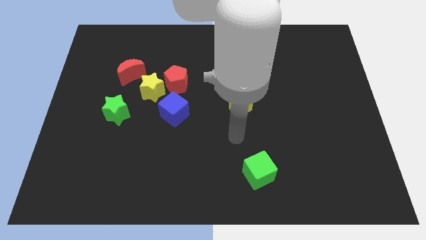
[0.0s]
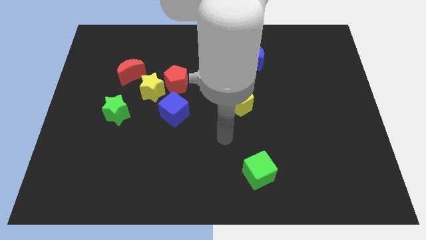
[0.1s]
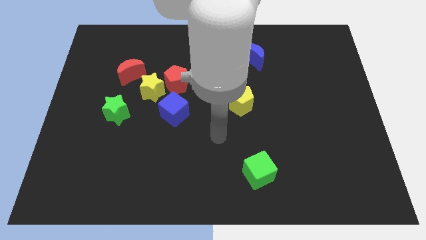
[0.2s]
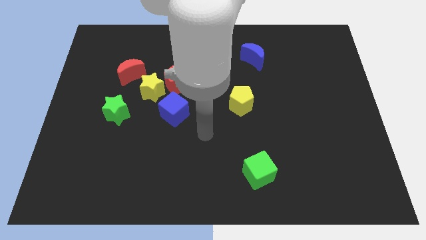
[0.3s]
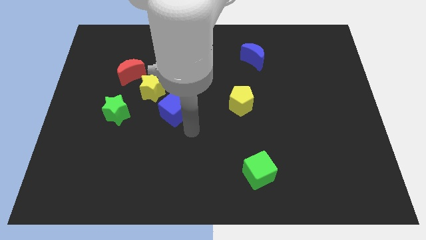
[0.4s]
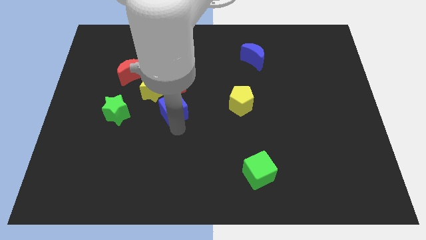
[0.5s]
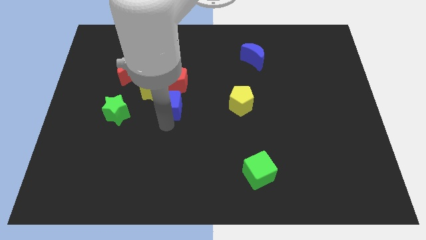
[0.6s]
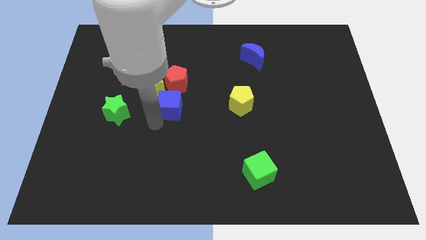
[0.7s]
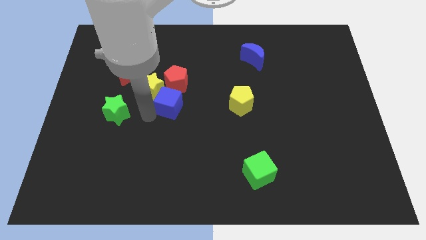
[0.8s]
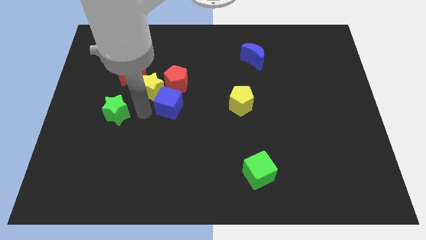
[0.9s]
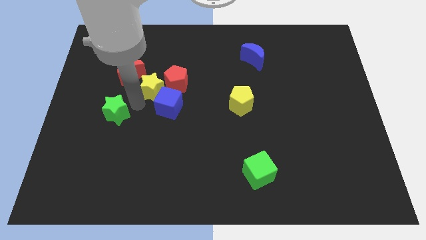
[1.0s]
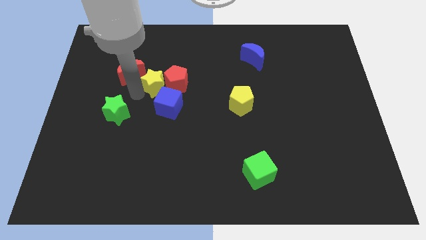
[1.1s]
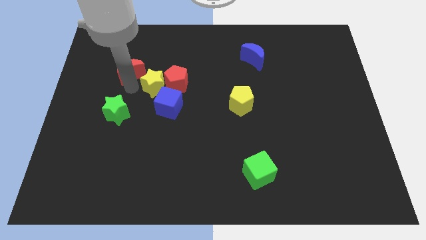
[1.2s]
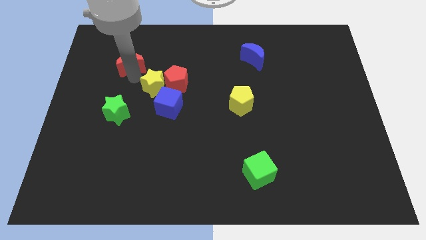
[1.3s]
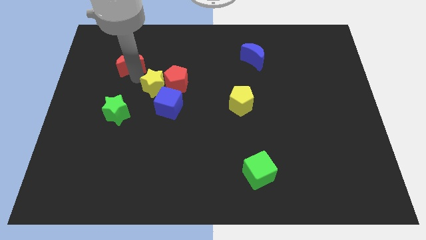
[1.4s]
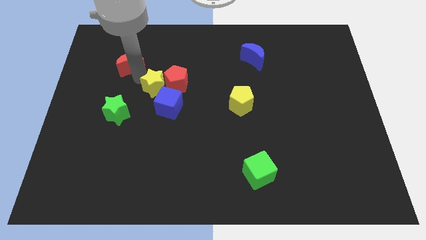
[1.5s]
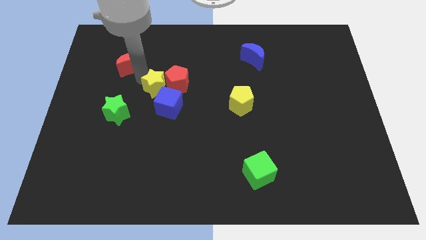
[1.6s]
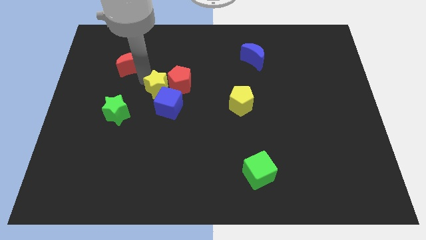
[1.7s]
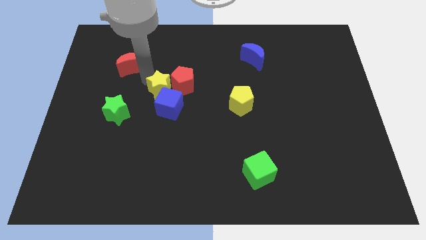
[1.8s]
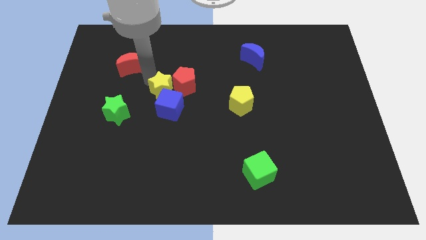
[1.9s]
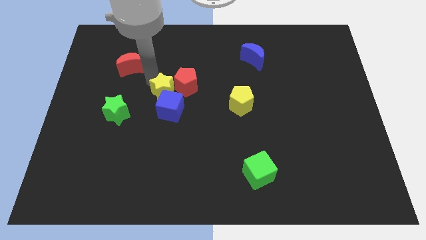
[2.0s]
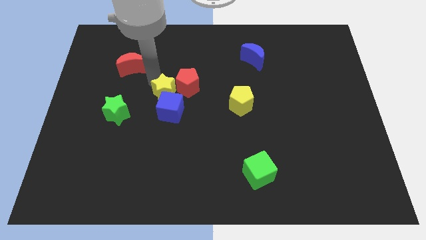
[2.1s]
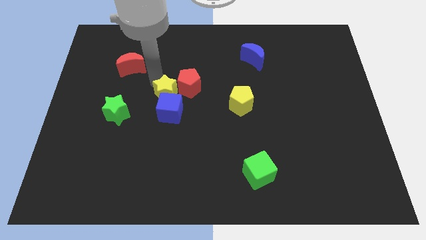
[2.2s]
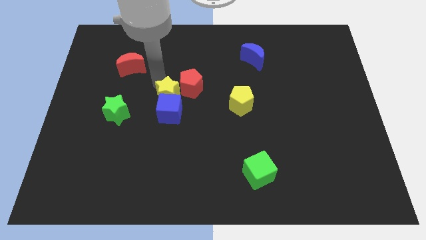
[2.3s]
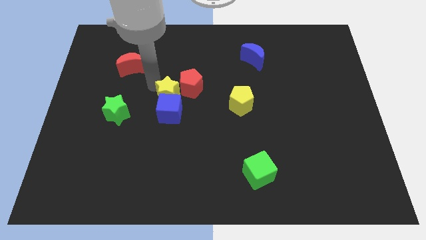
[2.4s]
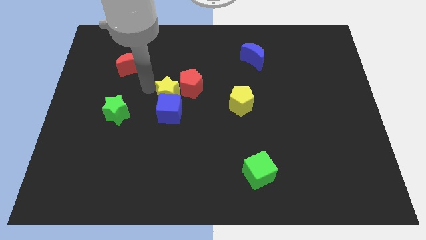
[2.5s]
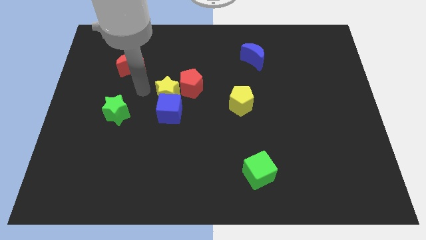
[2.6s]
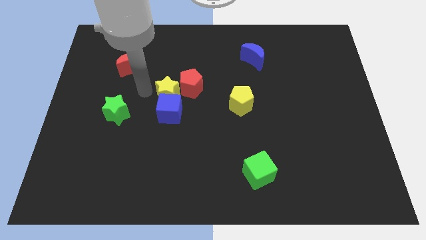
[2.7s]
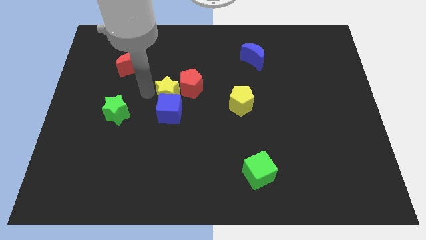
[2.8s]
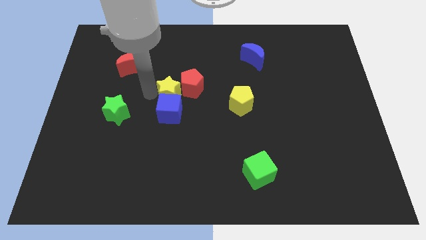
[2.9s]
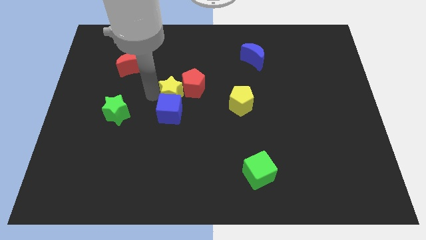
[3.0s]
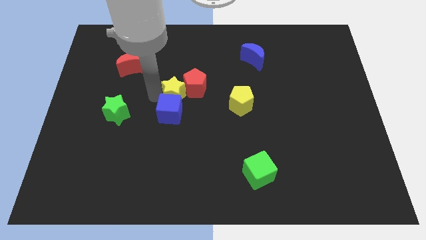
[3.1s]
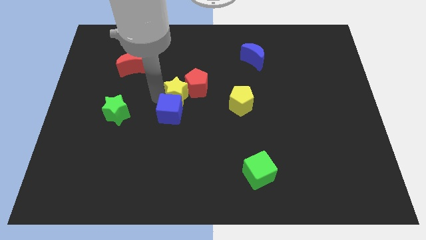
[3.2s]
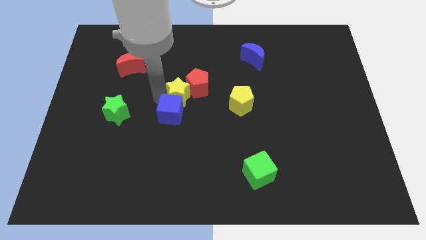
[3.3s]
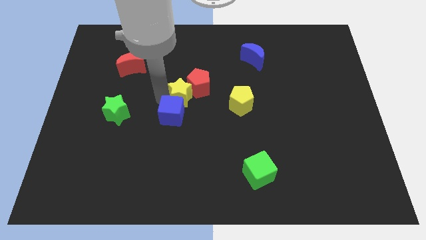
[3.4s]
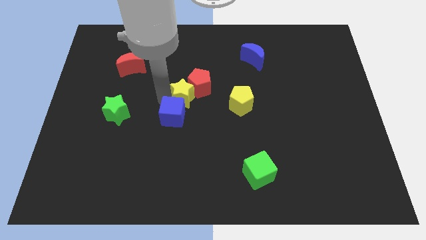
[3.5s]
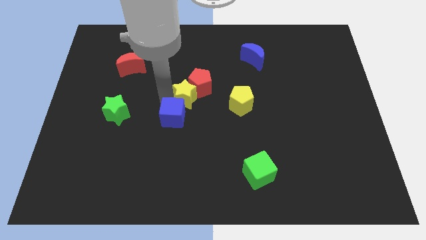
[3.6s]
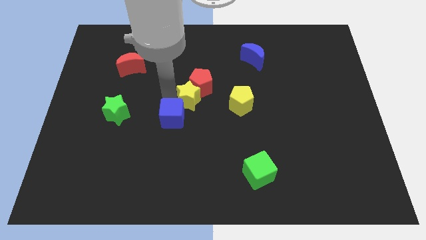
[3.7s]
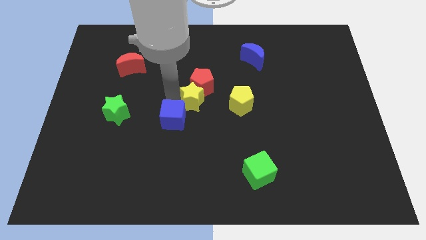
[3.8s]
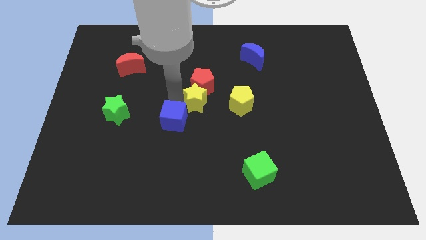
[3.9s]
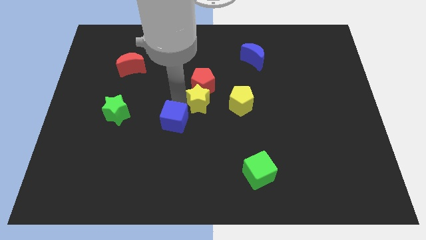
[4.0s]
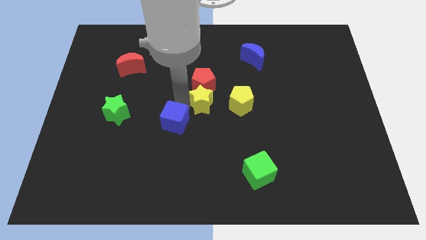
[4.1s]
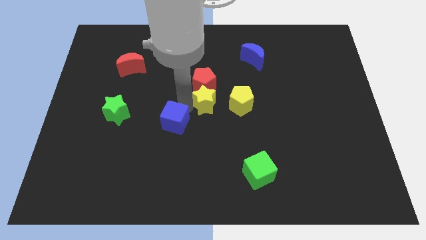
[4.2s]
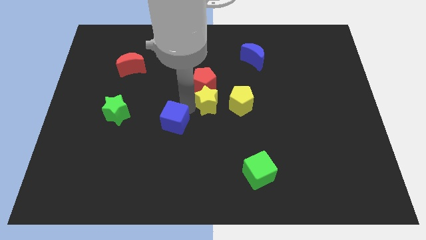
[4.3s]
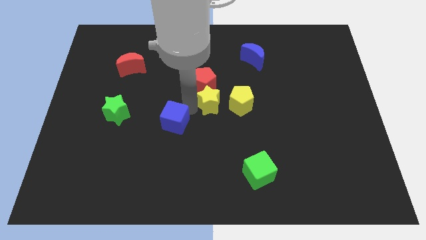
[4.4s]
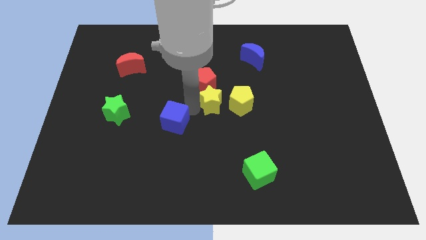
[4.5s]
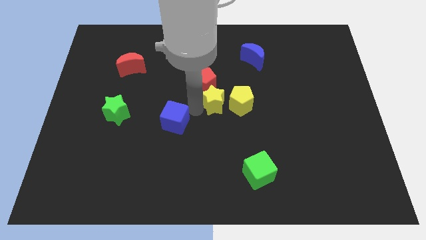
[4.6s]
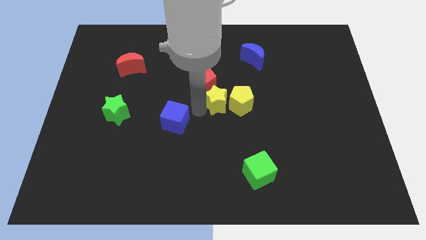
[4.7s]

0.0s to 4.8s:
slide the yellow star to the yellow pentagon

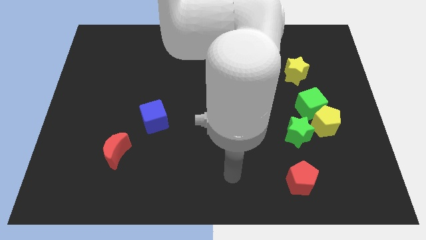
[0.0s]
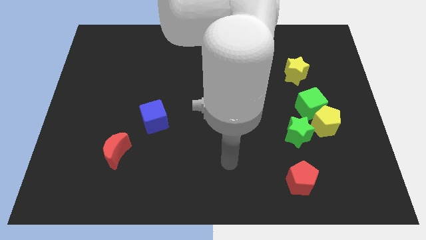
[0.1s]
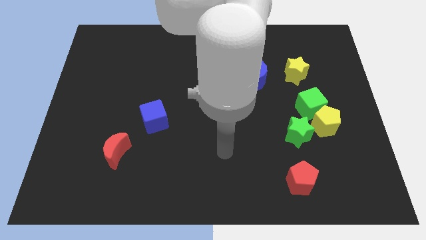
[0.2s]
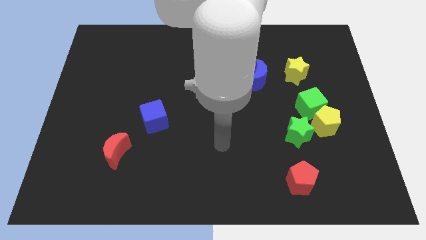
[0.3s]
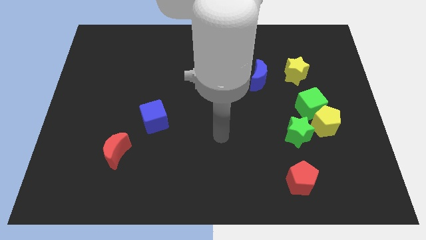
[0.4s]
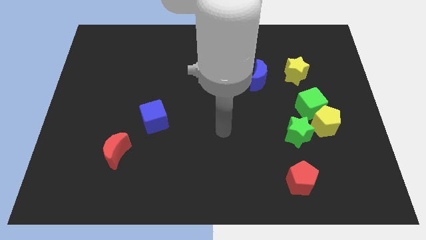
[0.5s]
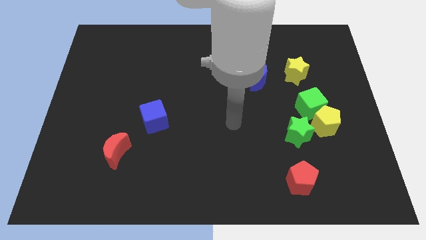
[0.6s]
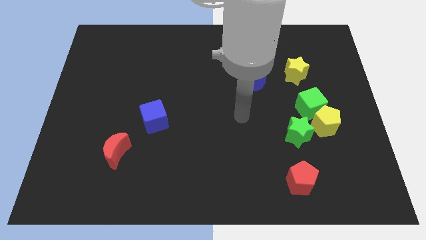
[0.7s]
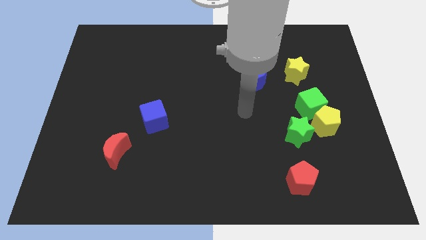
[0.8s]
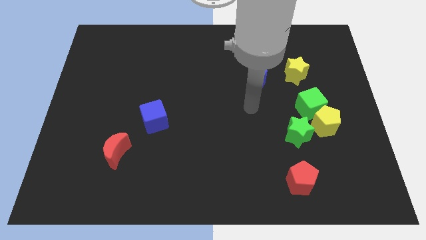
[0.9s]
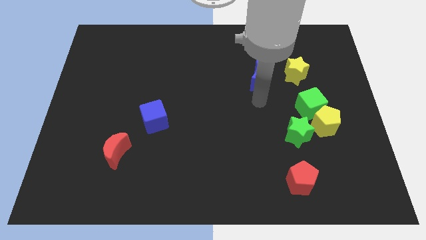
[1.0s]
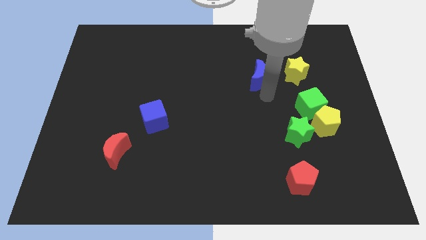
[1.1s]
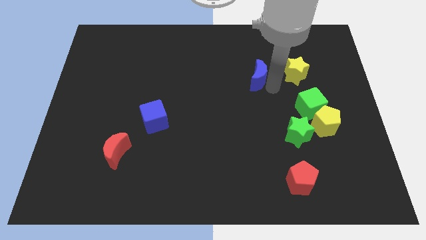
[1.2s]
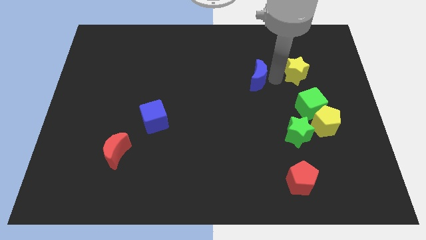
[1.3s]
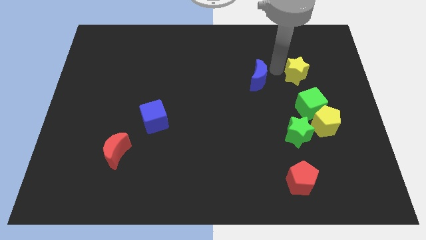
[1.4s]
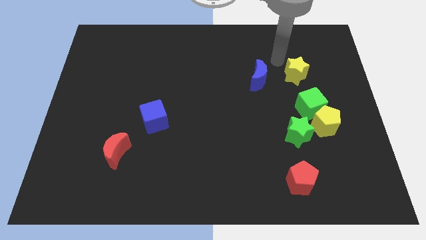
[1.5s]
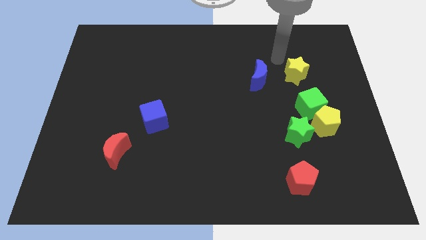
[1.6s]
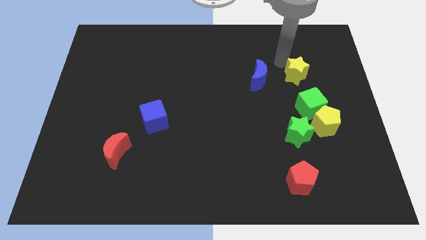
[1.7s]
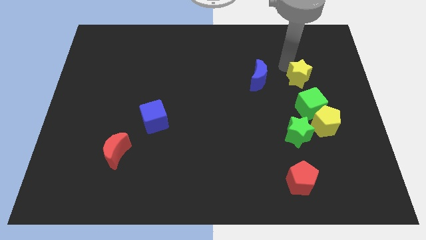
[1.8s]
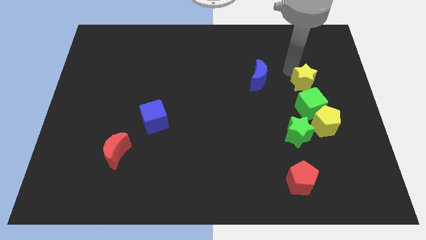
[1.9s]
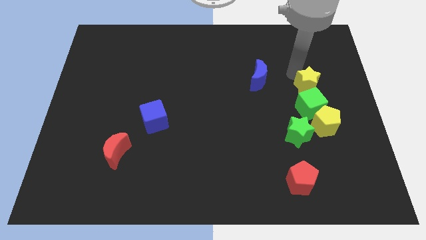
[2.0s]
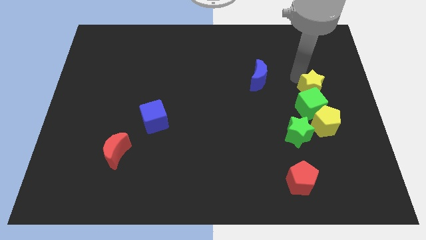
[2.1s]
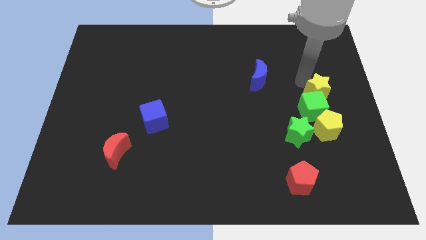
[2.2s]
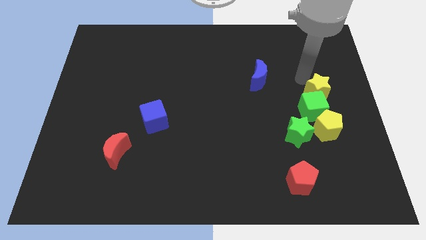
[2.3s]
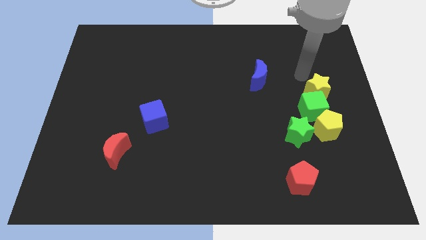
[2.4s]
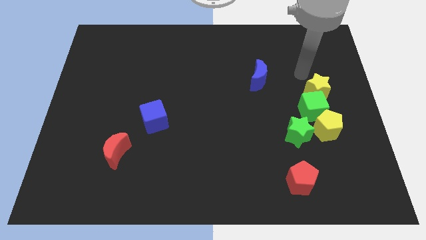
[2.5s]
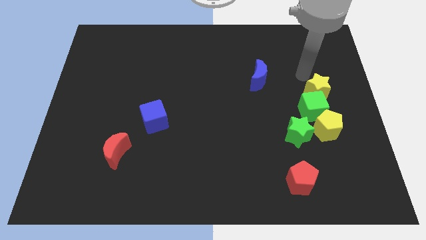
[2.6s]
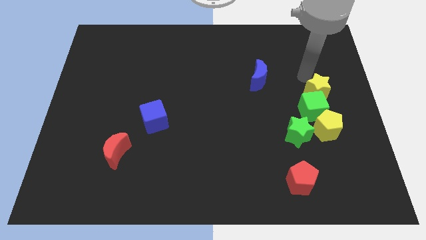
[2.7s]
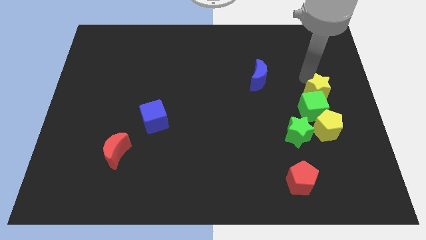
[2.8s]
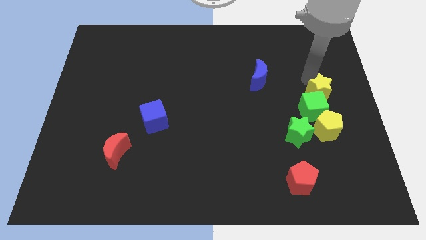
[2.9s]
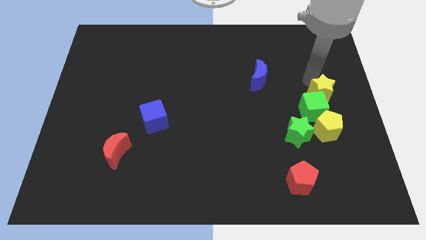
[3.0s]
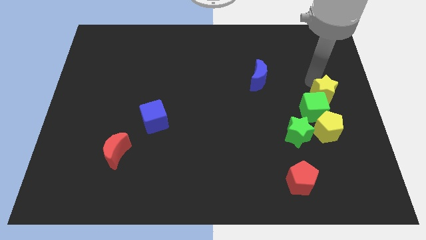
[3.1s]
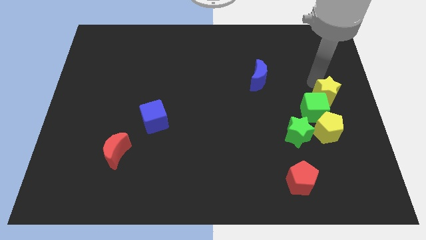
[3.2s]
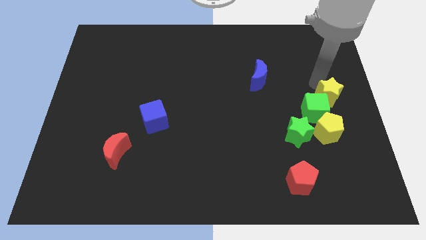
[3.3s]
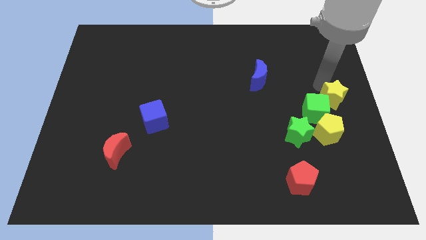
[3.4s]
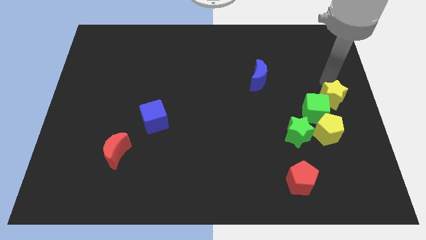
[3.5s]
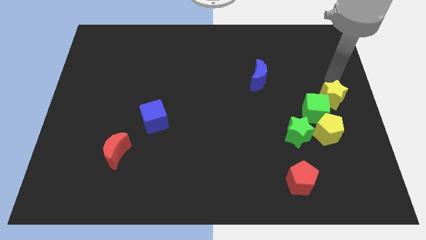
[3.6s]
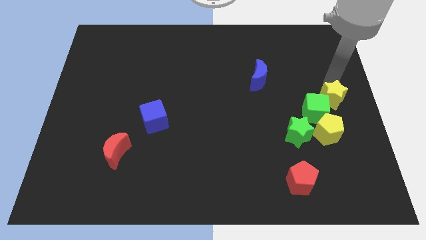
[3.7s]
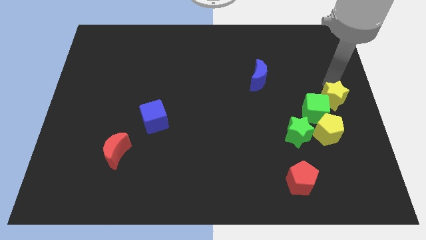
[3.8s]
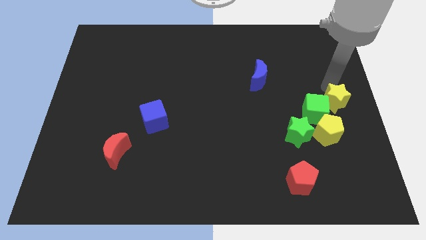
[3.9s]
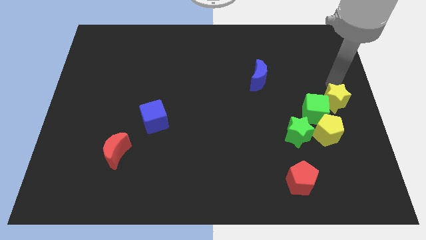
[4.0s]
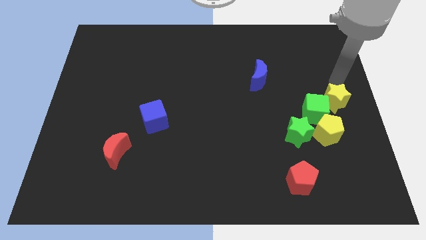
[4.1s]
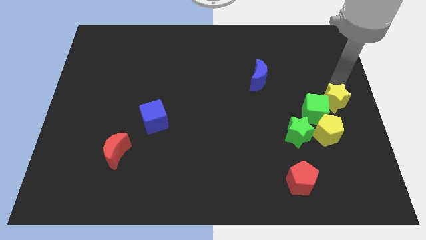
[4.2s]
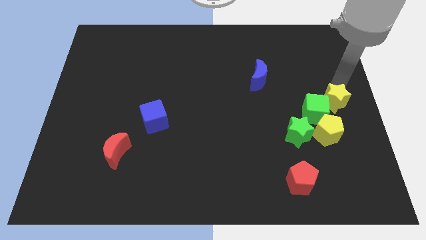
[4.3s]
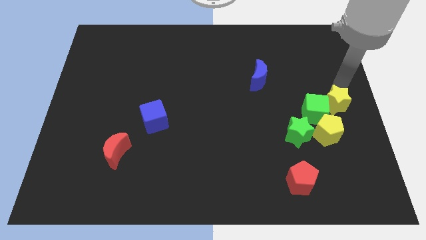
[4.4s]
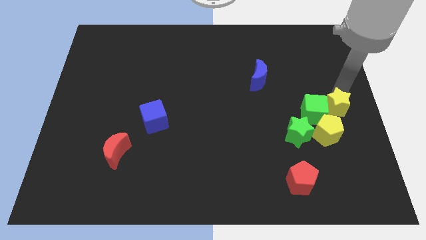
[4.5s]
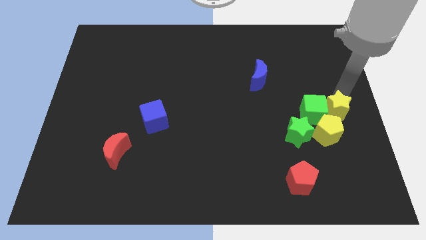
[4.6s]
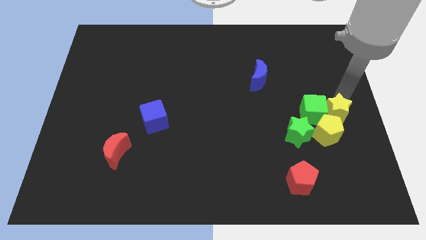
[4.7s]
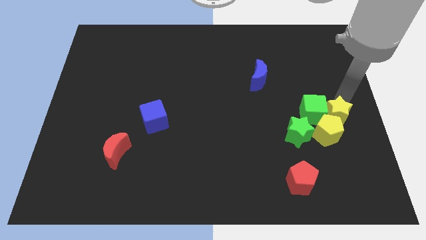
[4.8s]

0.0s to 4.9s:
move the yellow star to the yellow pentagon
